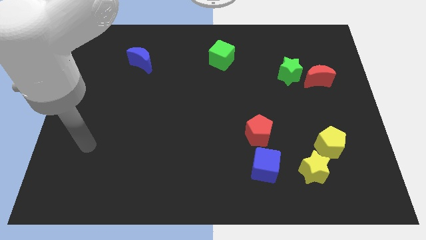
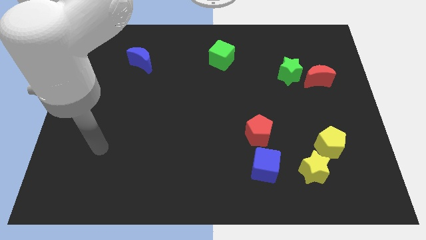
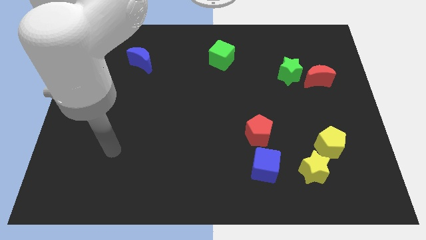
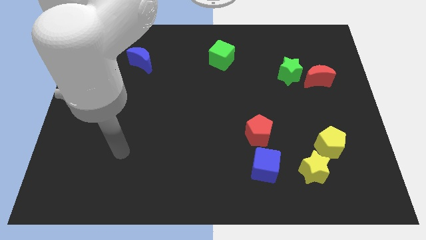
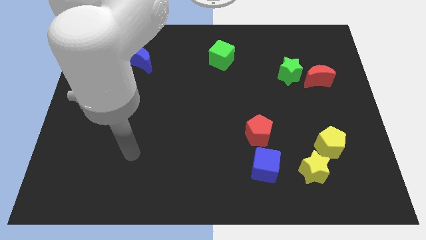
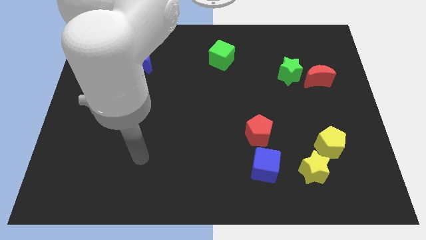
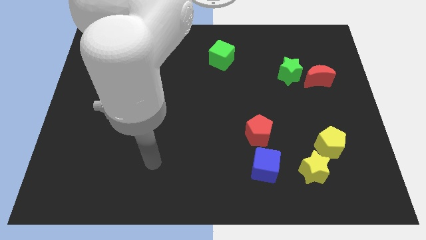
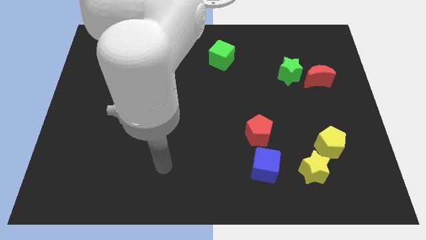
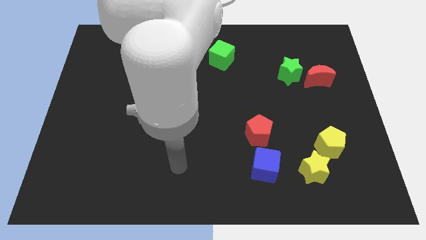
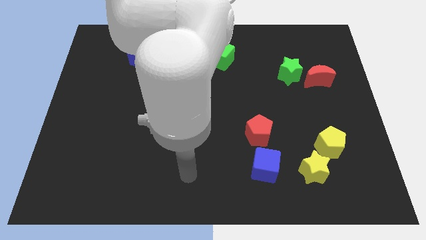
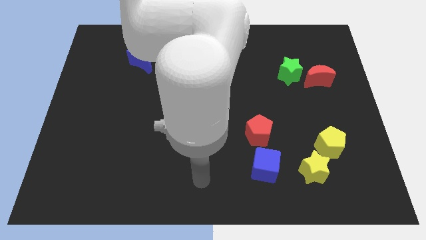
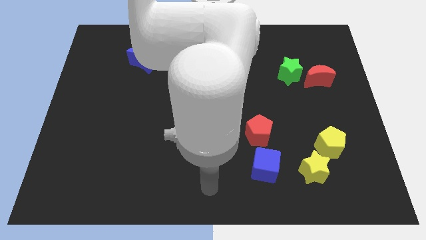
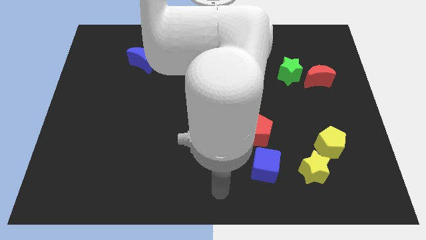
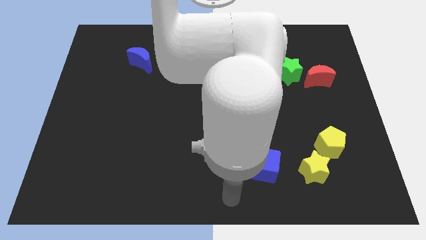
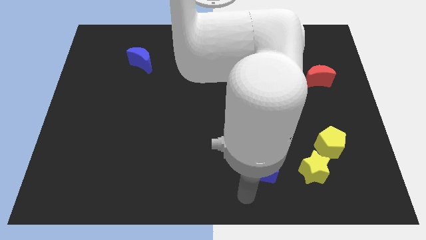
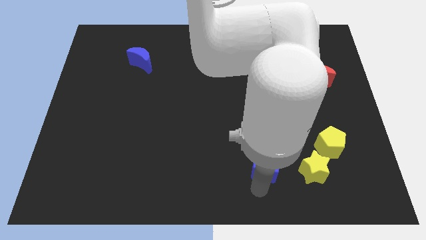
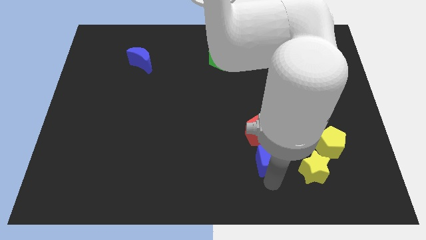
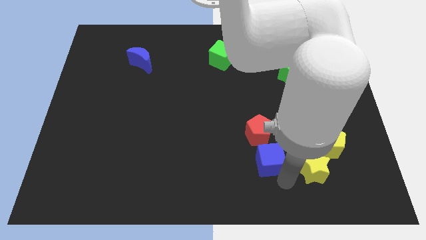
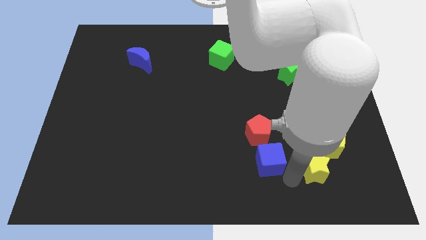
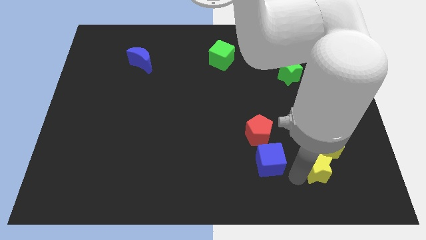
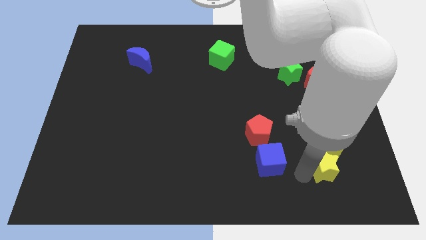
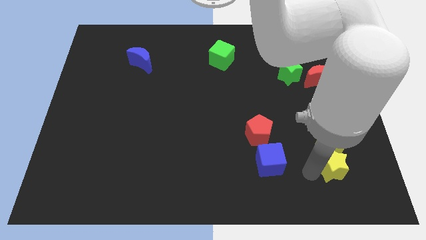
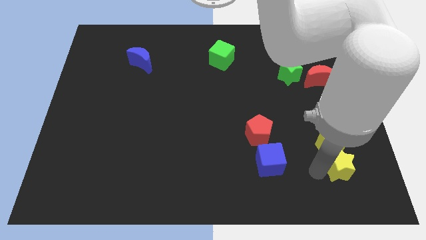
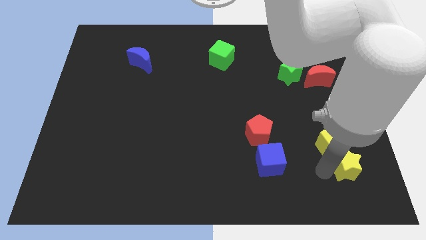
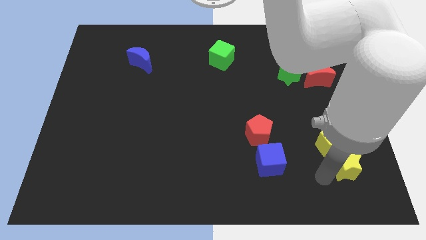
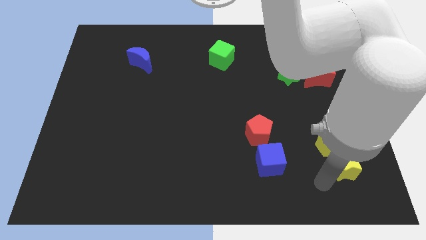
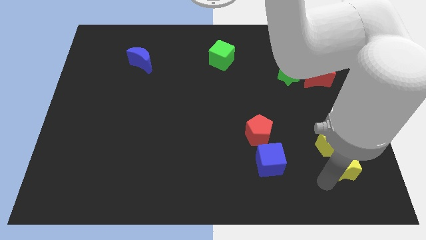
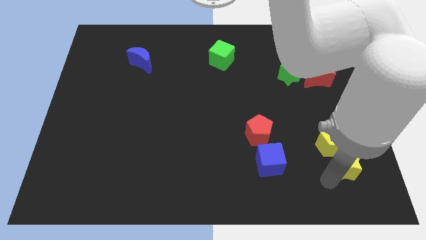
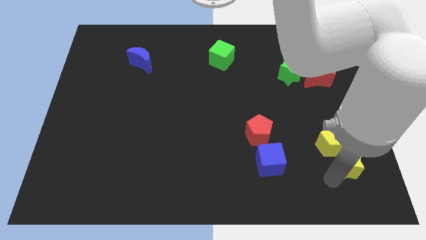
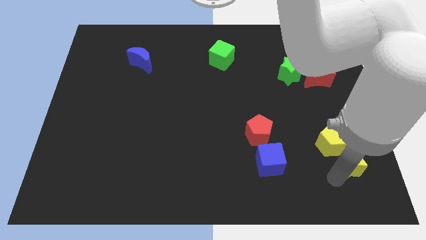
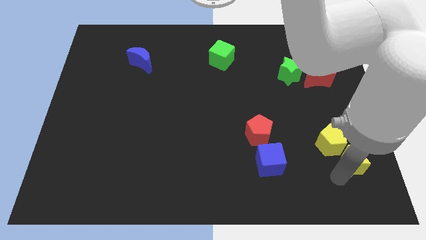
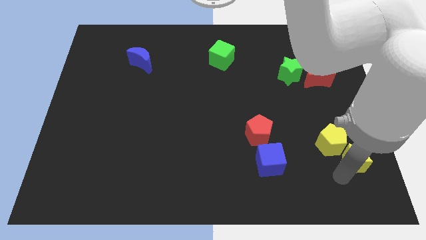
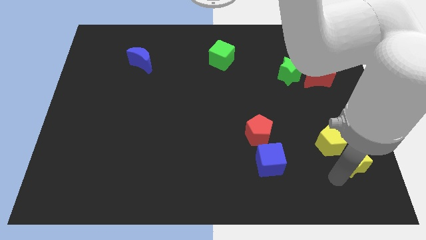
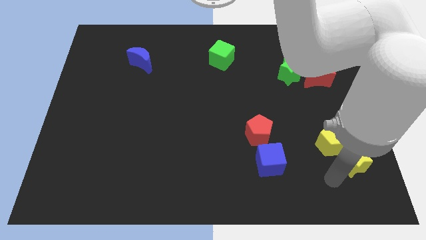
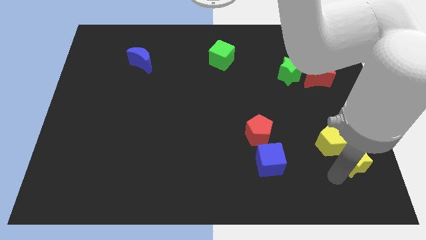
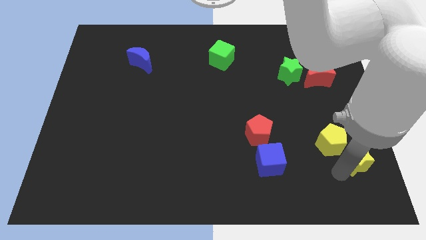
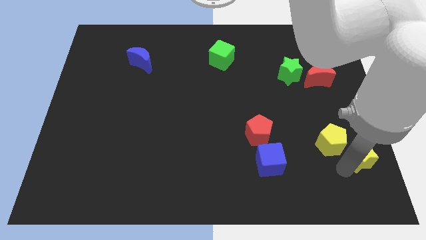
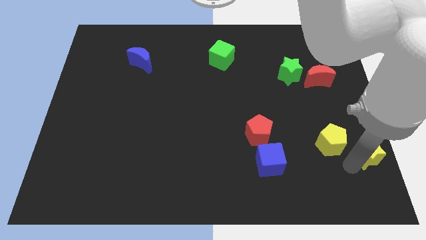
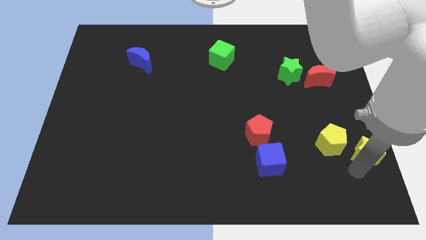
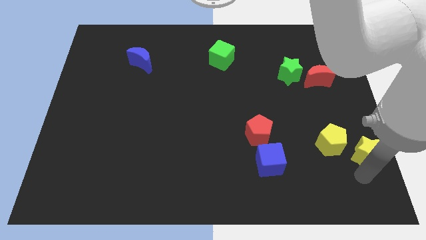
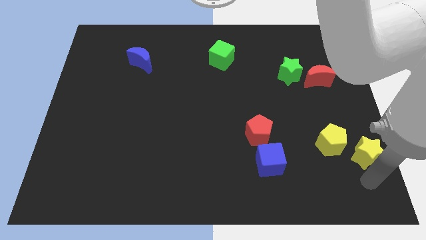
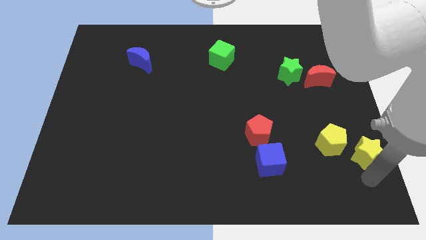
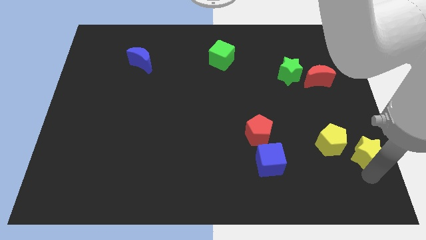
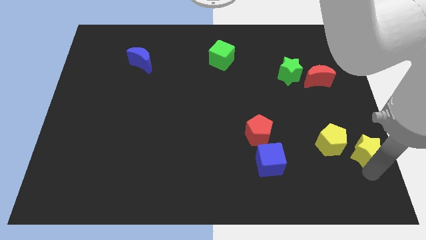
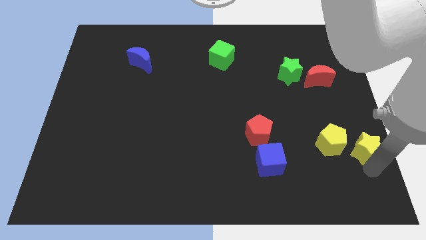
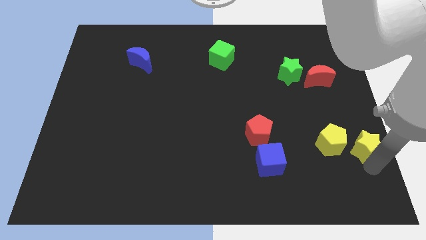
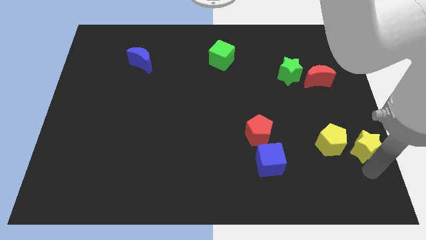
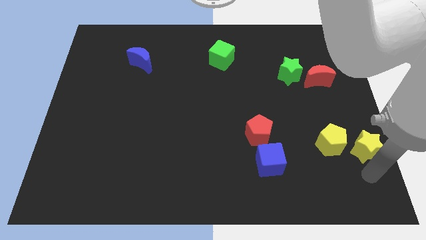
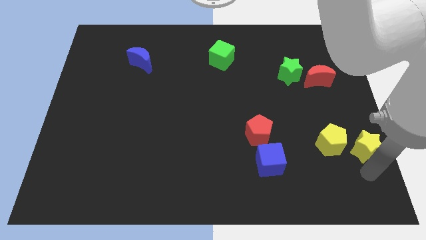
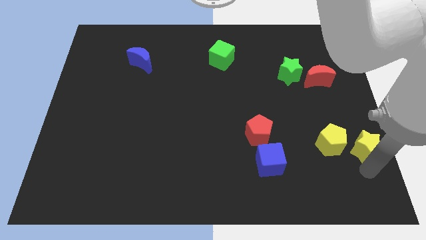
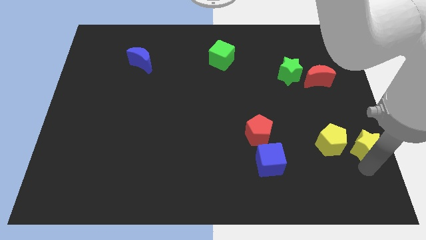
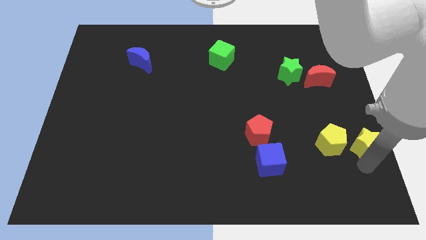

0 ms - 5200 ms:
put the yellow star to the center right

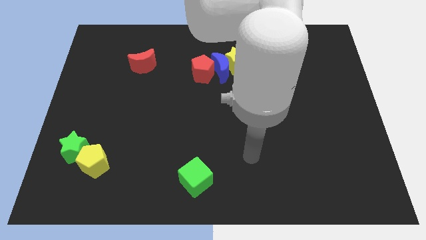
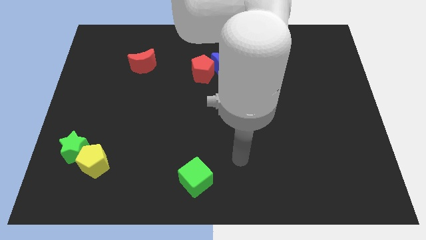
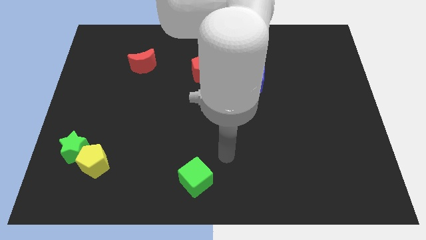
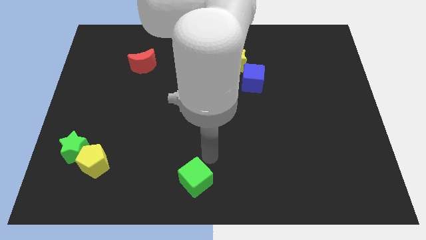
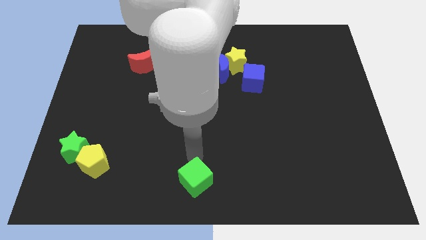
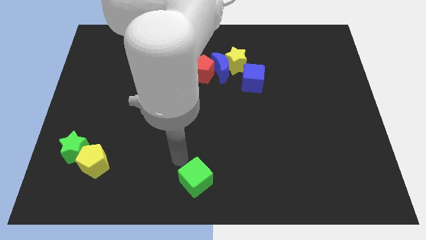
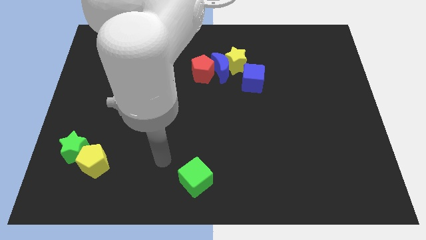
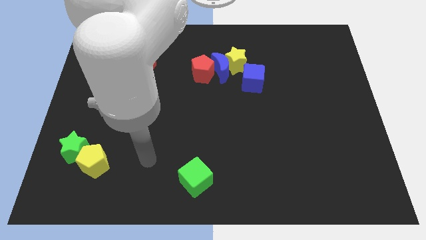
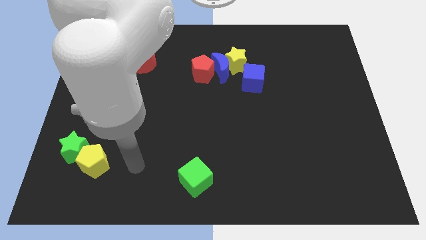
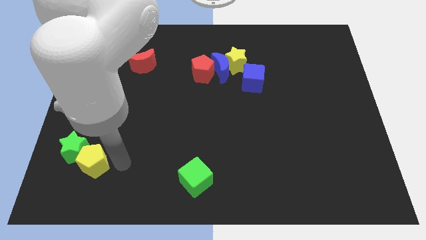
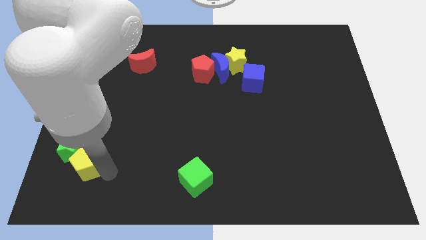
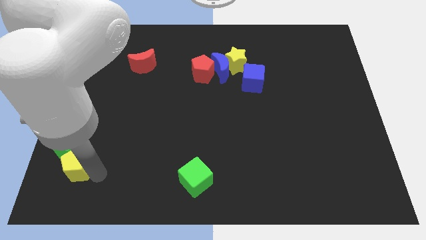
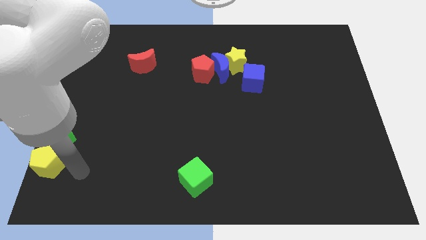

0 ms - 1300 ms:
slide the green star to the left side of the board

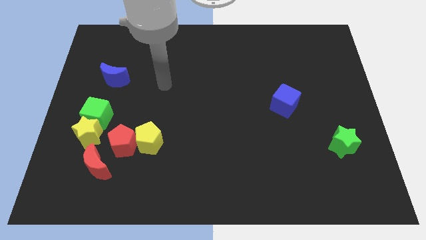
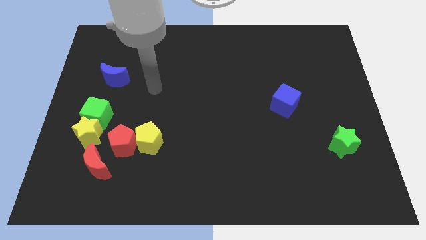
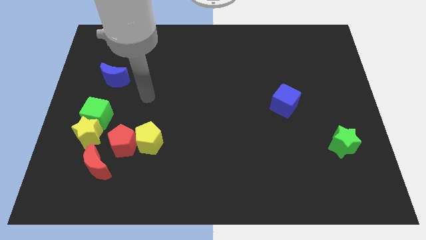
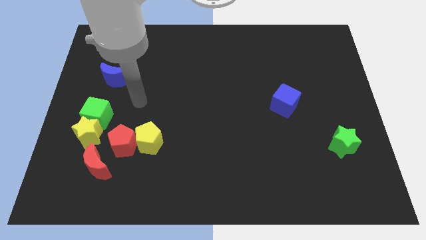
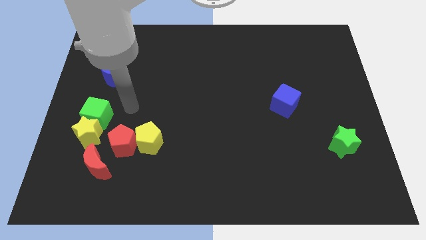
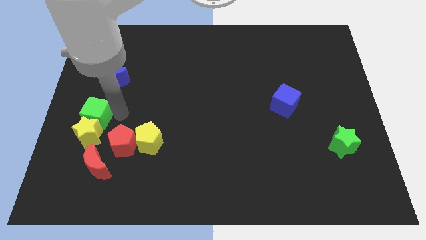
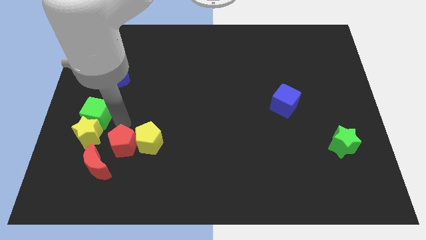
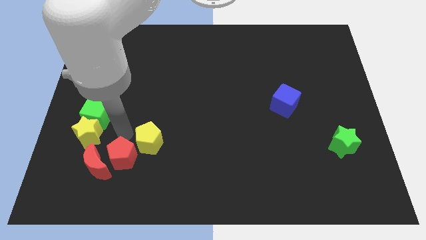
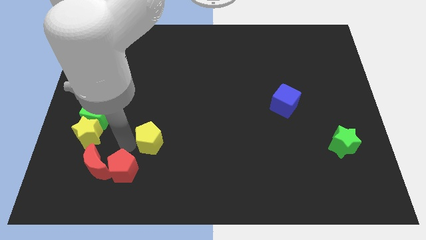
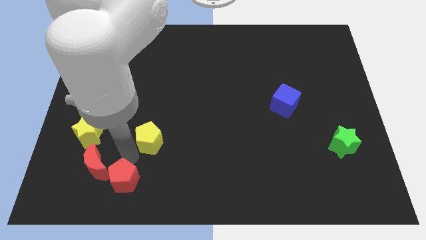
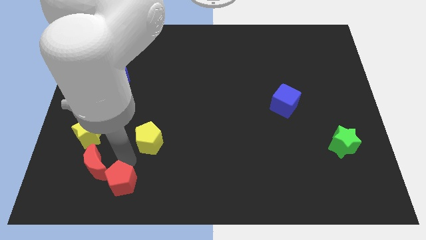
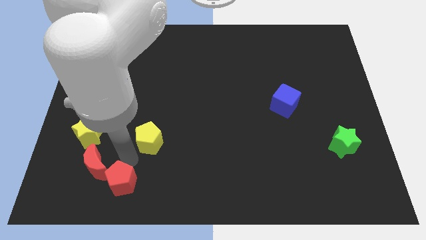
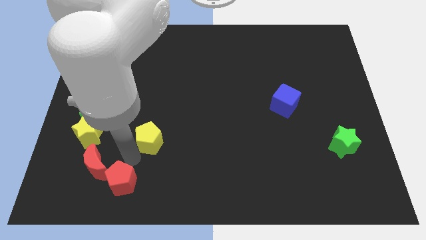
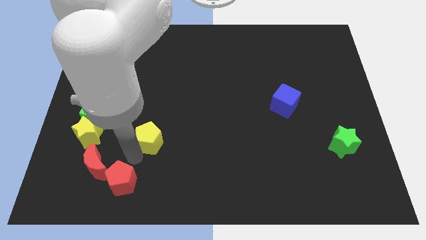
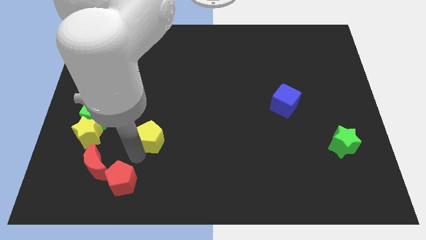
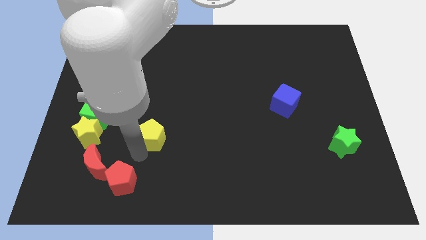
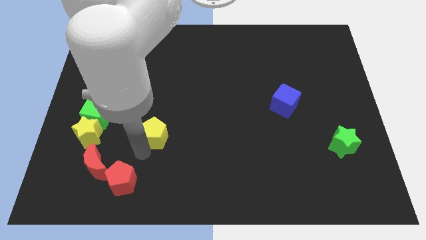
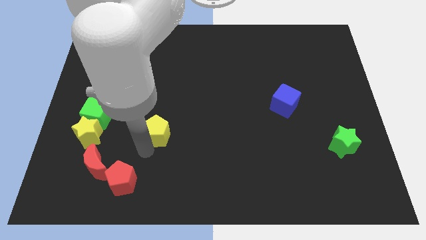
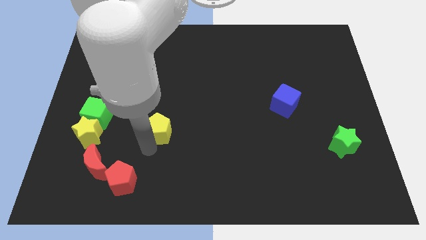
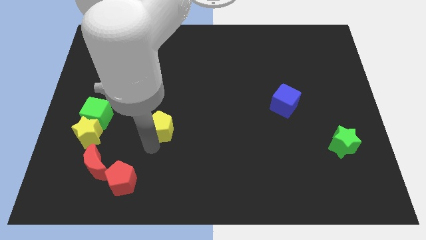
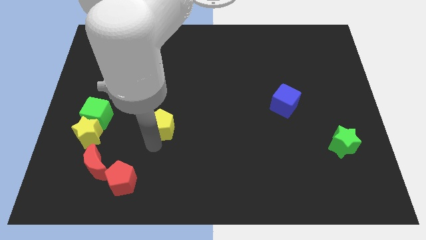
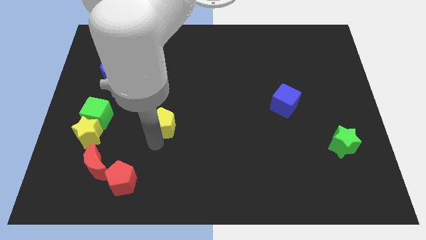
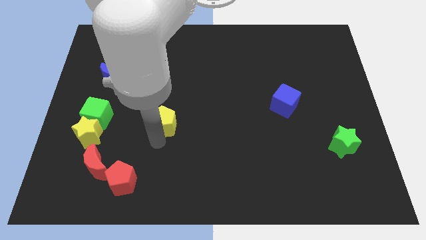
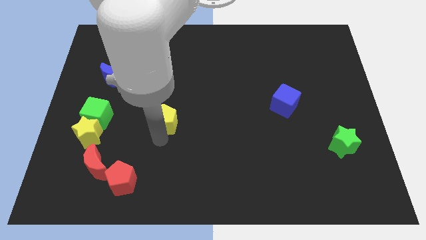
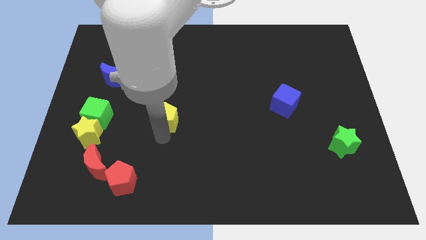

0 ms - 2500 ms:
move the yellow pentagon to the center
